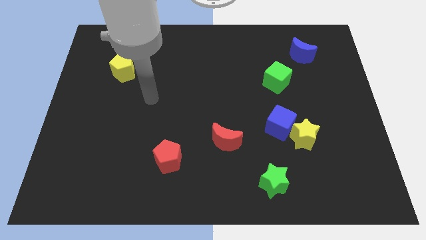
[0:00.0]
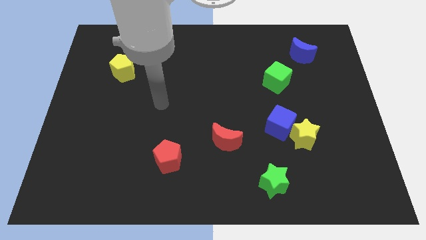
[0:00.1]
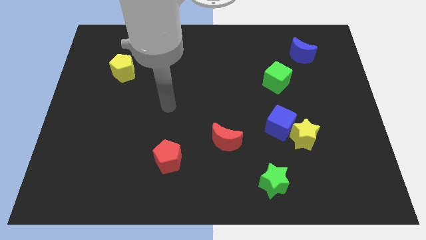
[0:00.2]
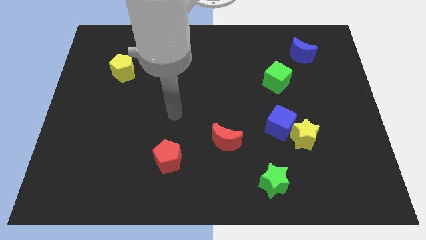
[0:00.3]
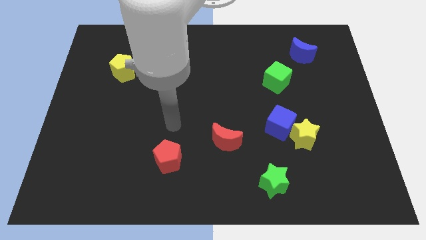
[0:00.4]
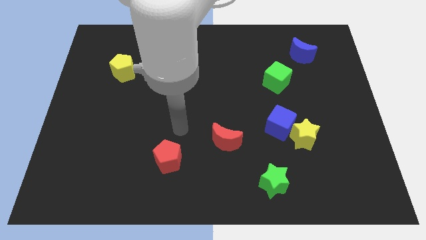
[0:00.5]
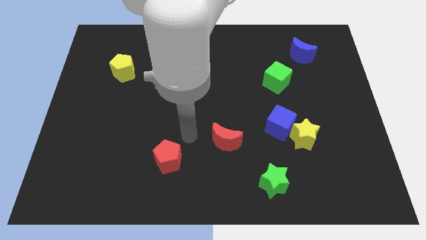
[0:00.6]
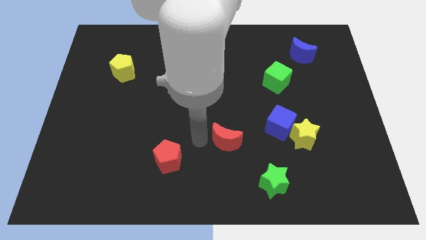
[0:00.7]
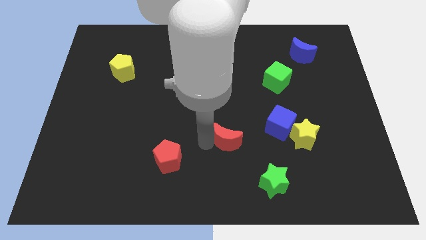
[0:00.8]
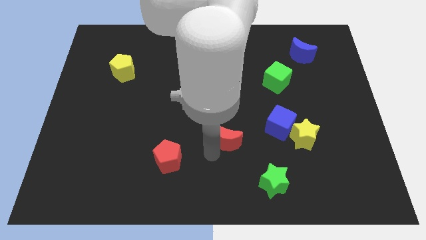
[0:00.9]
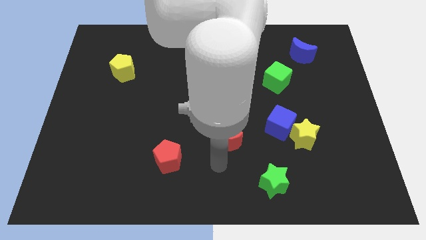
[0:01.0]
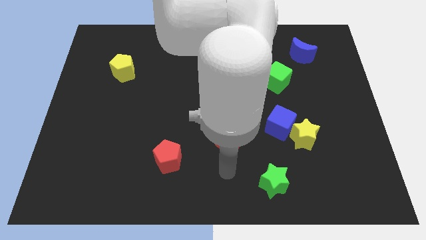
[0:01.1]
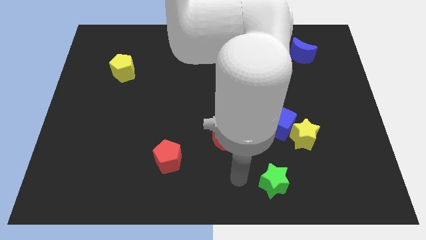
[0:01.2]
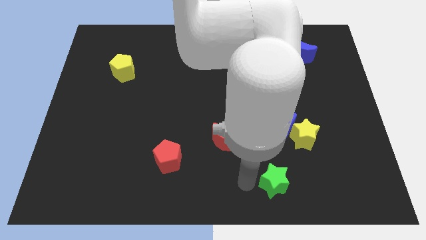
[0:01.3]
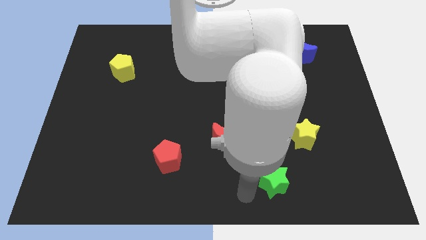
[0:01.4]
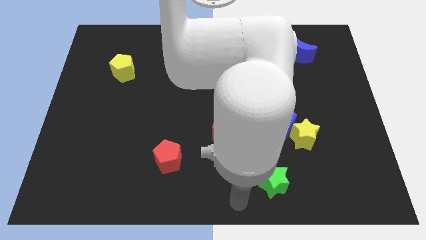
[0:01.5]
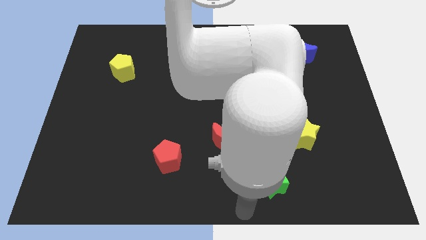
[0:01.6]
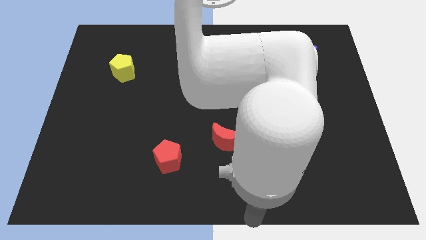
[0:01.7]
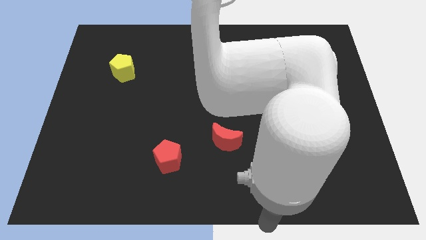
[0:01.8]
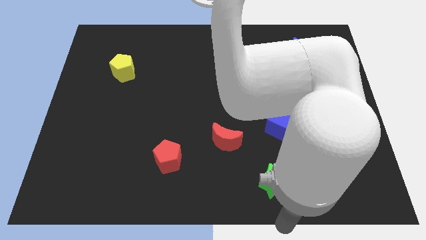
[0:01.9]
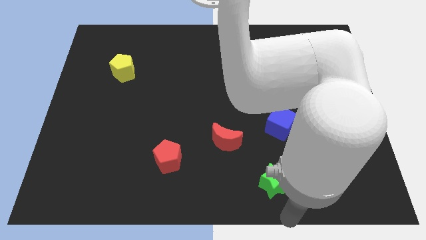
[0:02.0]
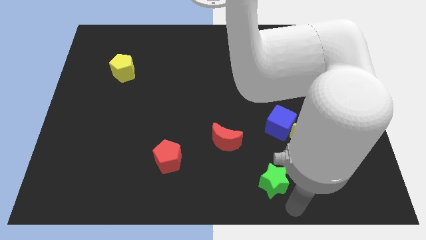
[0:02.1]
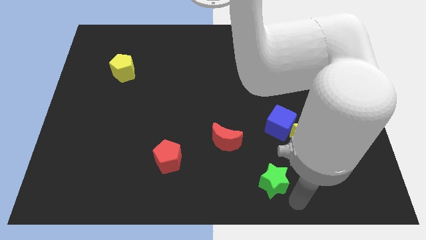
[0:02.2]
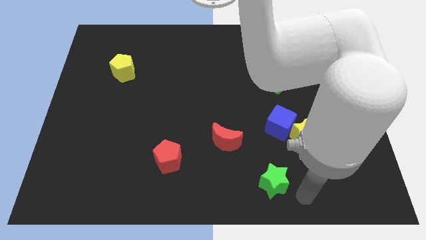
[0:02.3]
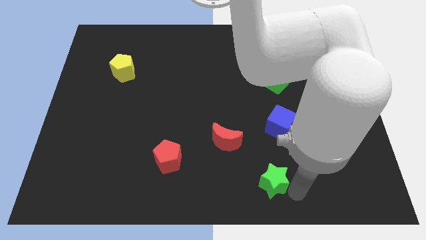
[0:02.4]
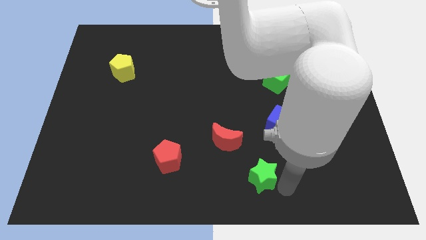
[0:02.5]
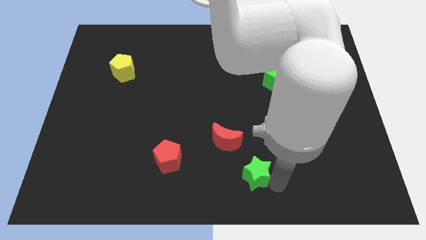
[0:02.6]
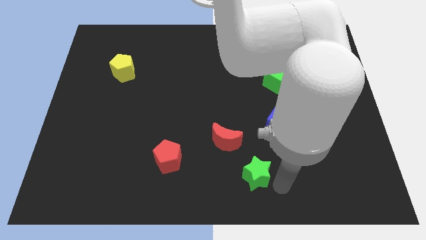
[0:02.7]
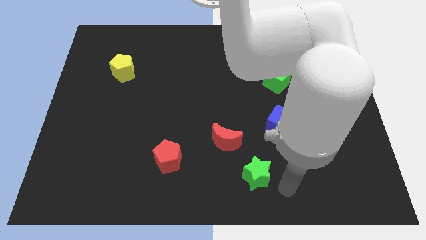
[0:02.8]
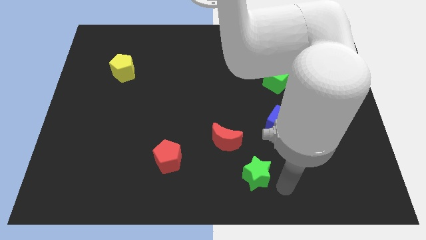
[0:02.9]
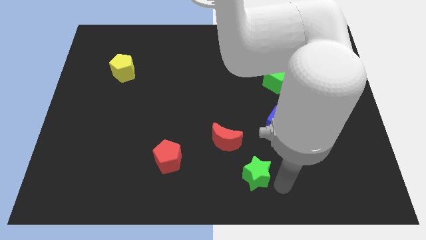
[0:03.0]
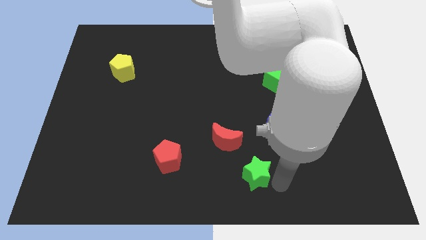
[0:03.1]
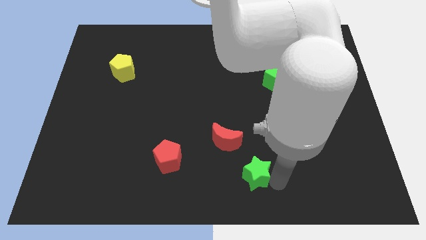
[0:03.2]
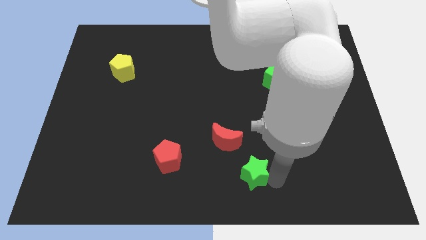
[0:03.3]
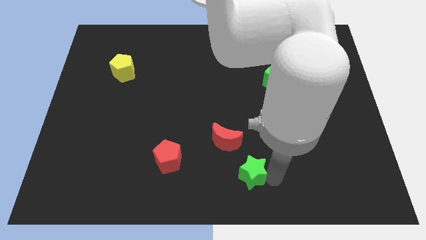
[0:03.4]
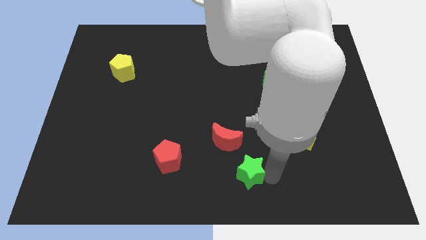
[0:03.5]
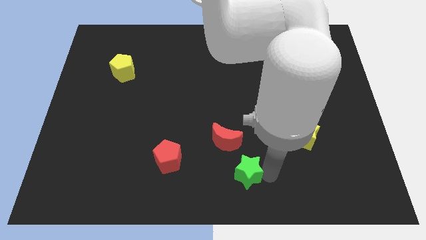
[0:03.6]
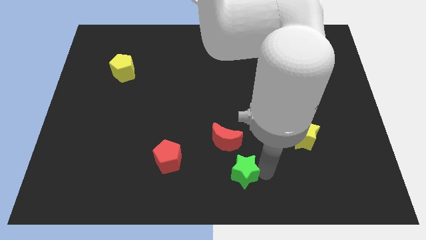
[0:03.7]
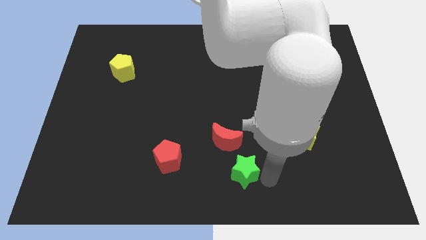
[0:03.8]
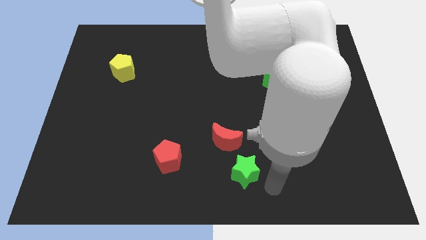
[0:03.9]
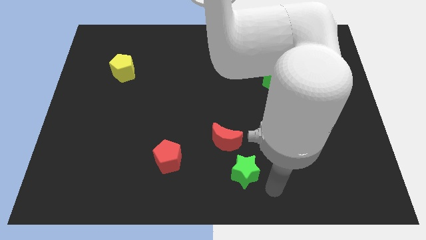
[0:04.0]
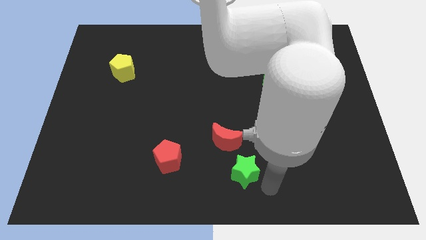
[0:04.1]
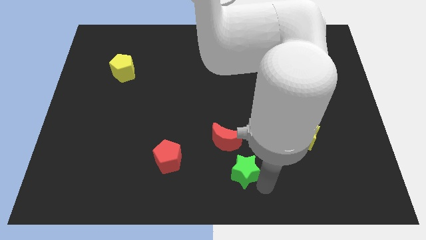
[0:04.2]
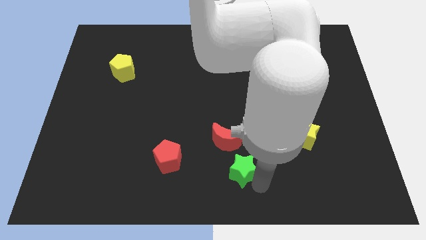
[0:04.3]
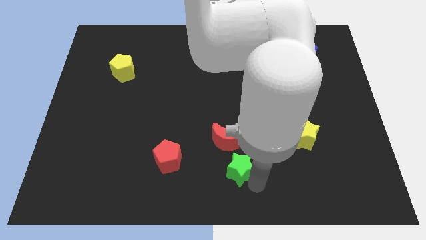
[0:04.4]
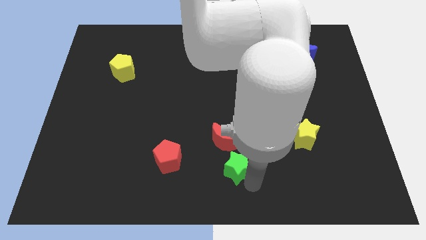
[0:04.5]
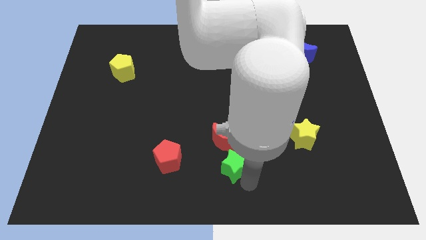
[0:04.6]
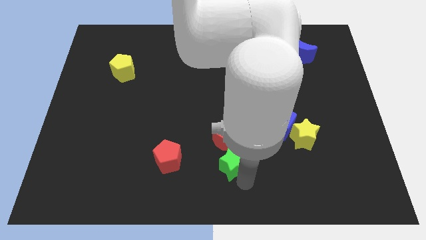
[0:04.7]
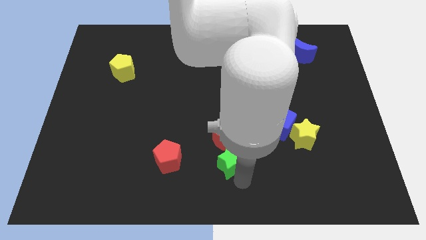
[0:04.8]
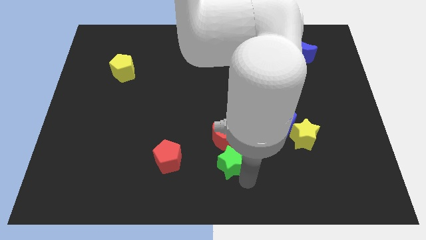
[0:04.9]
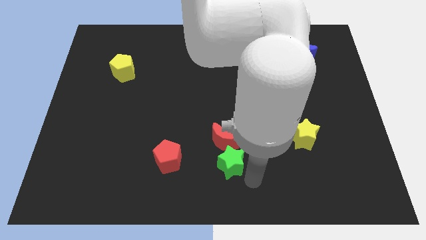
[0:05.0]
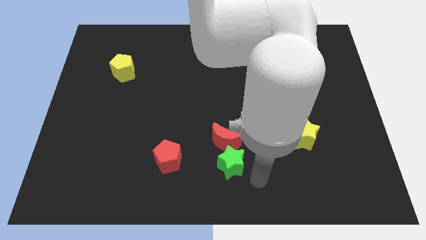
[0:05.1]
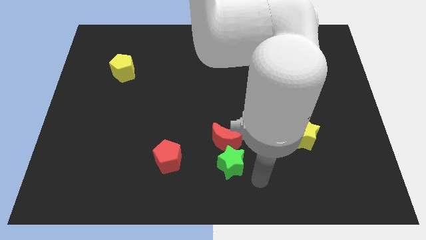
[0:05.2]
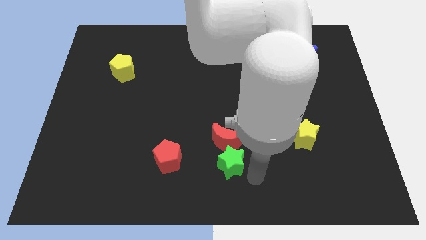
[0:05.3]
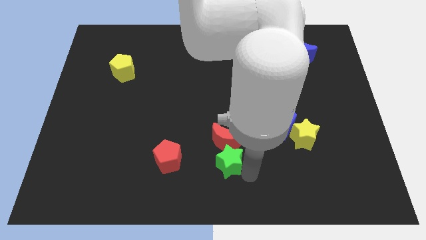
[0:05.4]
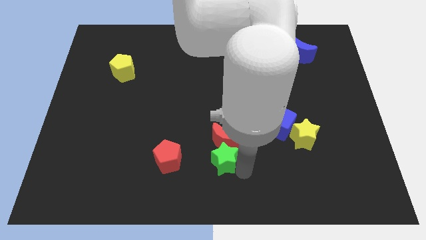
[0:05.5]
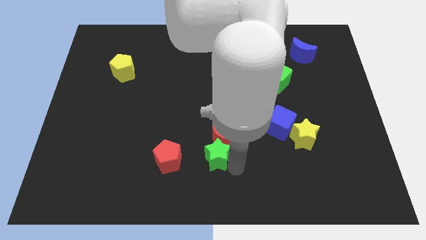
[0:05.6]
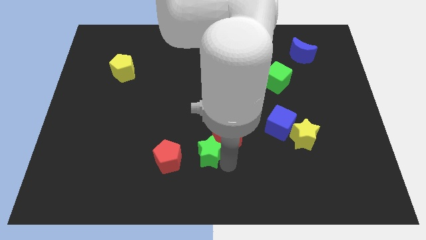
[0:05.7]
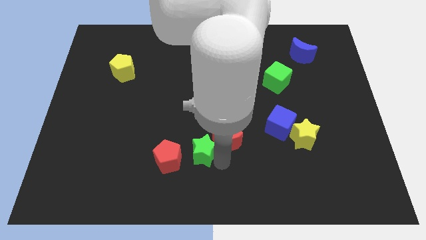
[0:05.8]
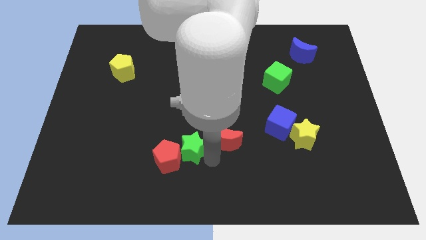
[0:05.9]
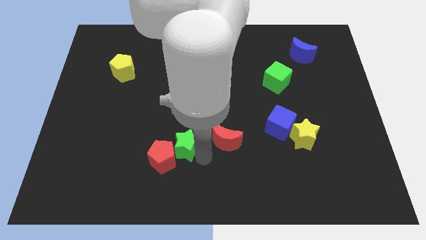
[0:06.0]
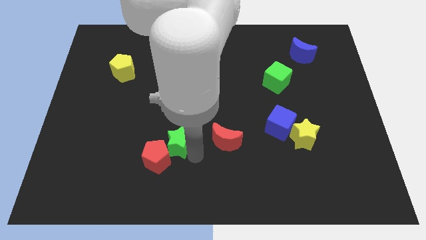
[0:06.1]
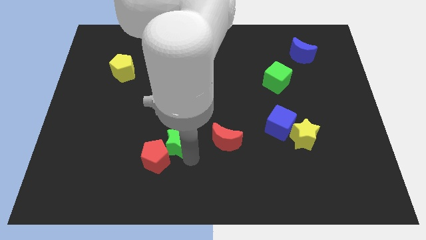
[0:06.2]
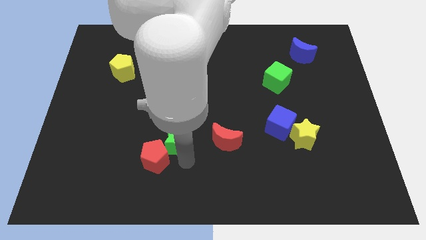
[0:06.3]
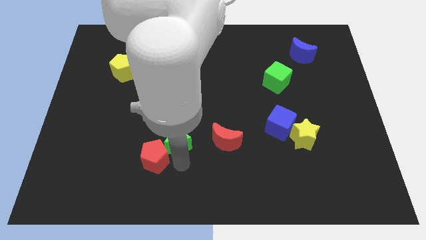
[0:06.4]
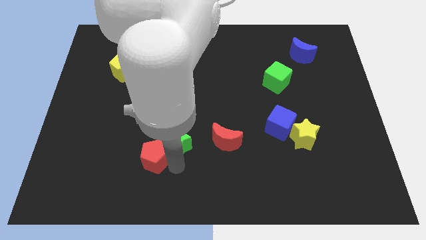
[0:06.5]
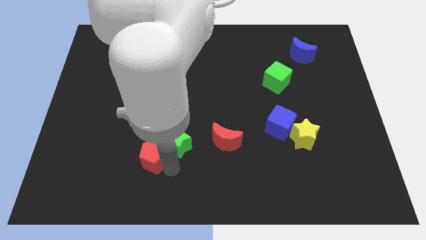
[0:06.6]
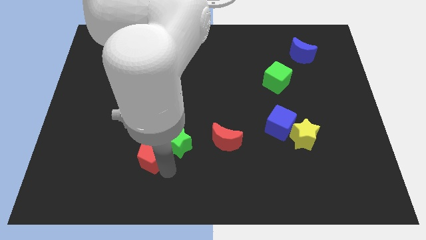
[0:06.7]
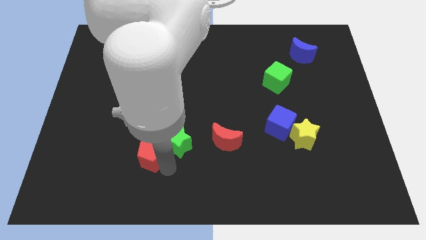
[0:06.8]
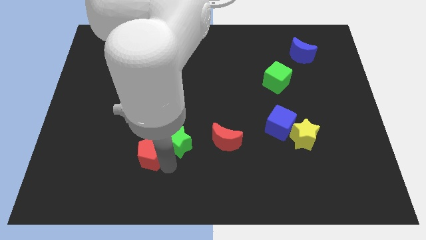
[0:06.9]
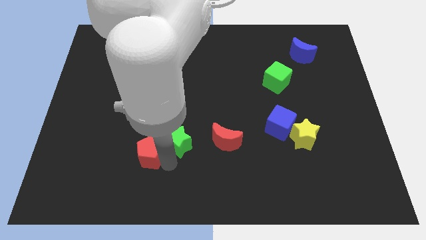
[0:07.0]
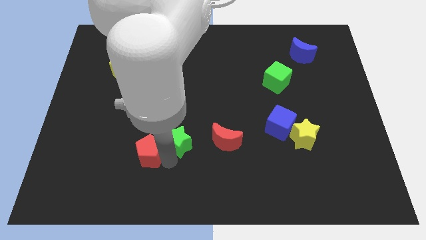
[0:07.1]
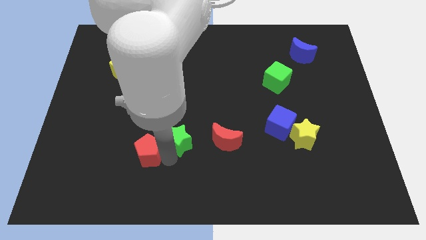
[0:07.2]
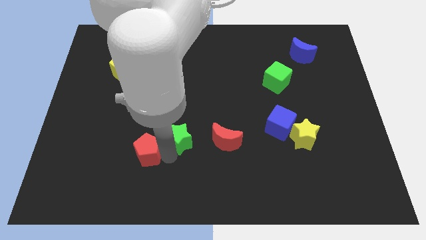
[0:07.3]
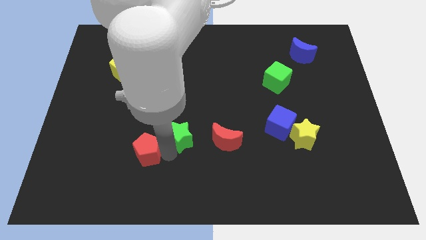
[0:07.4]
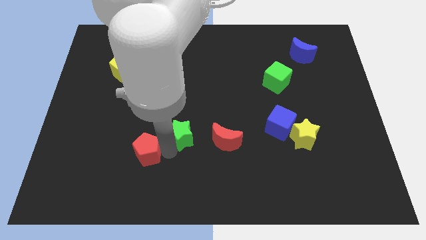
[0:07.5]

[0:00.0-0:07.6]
push the green star up and to the left diagonally

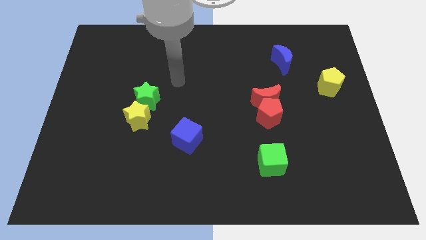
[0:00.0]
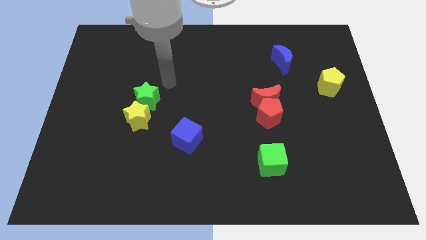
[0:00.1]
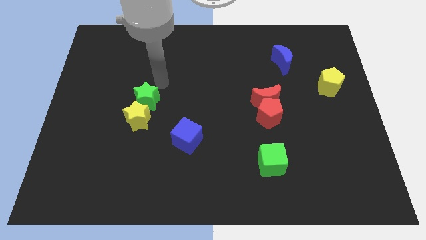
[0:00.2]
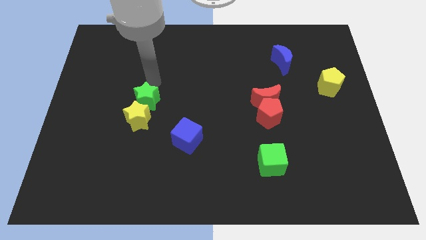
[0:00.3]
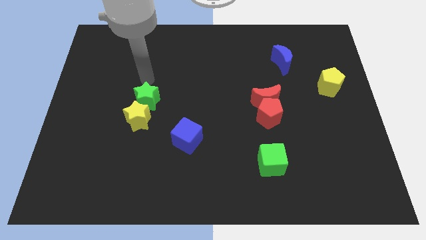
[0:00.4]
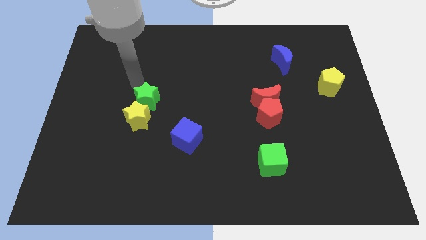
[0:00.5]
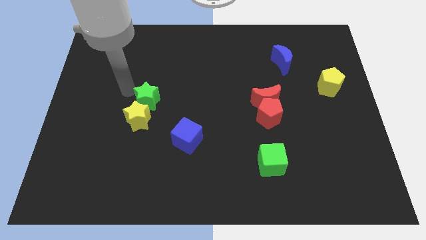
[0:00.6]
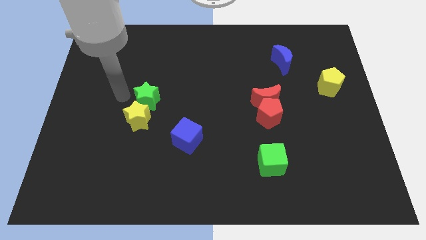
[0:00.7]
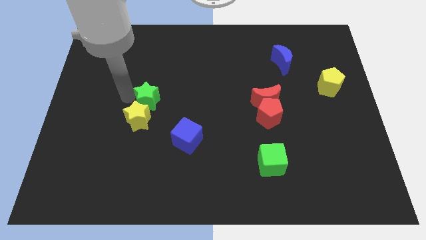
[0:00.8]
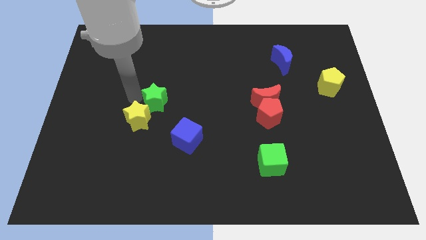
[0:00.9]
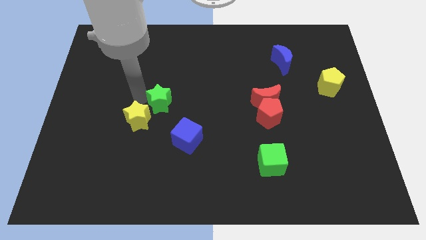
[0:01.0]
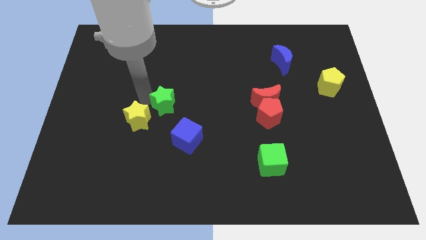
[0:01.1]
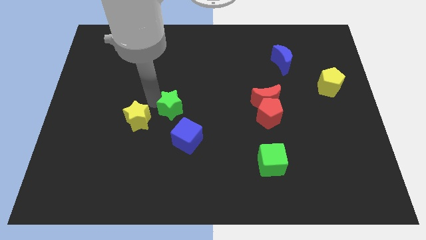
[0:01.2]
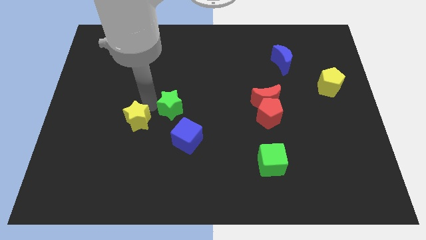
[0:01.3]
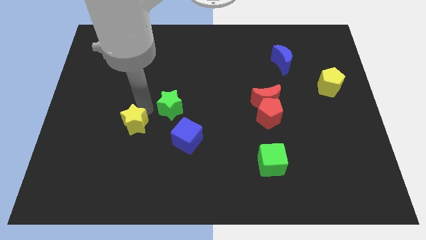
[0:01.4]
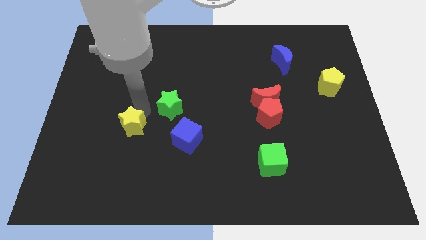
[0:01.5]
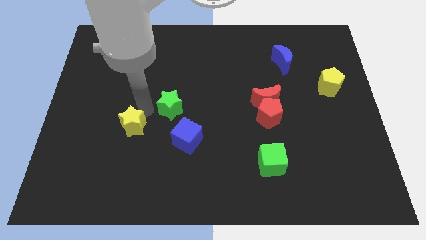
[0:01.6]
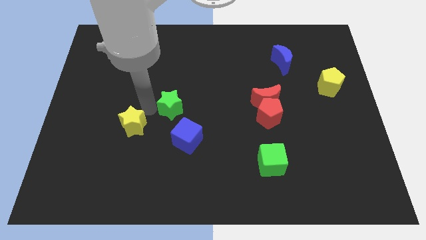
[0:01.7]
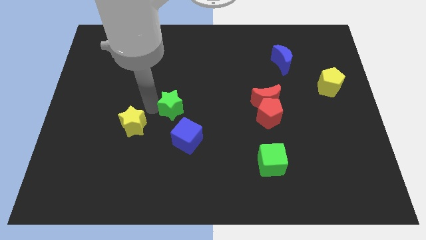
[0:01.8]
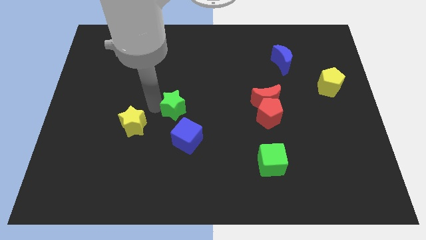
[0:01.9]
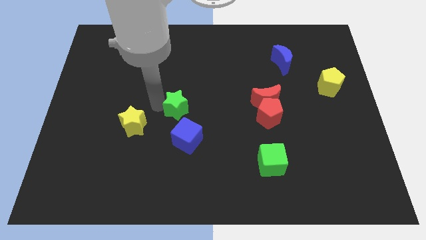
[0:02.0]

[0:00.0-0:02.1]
push the green star right a little
